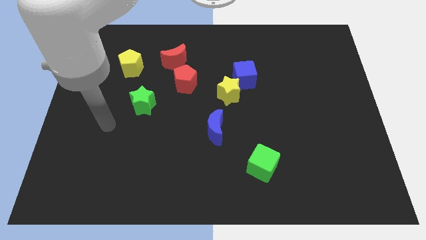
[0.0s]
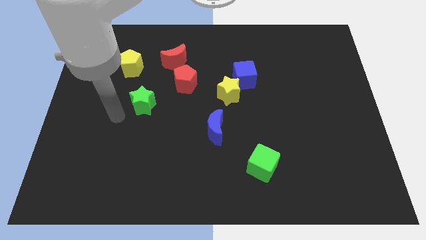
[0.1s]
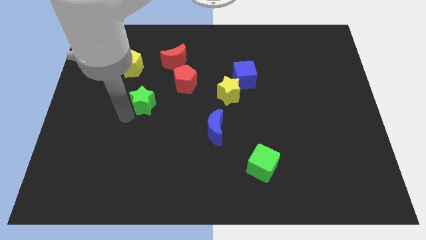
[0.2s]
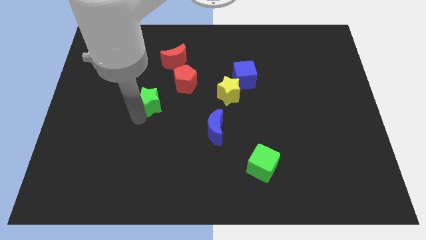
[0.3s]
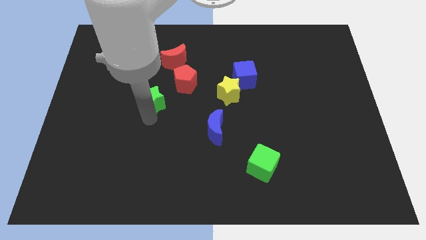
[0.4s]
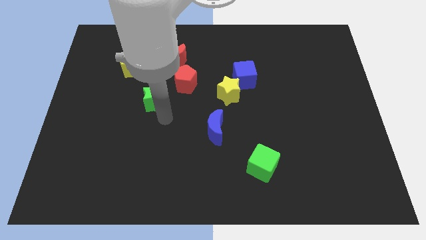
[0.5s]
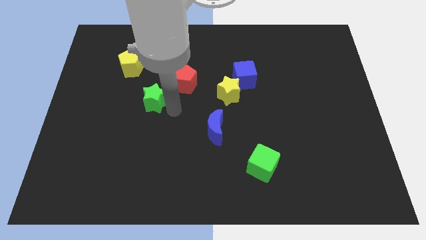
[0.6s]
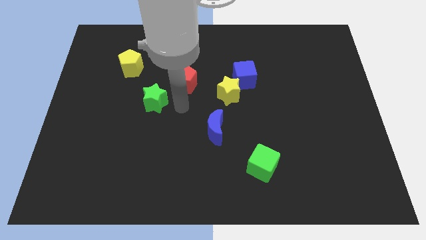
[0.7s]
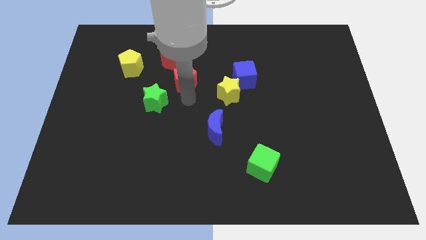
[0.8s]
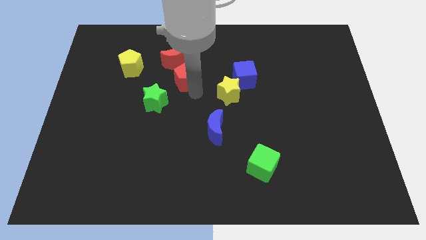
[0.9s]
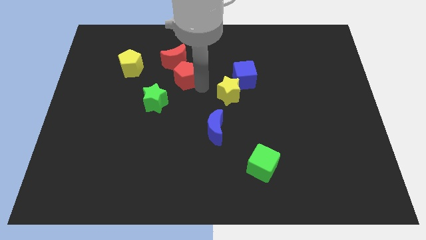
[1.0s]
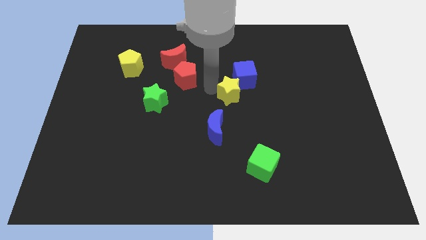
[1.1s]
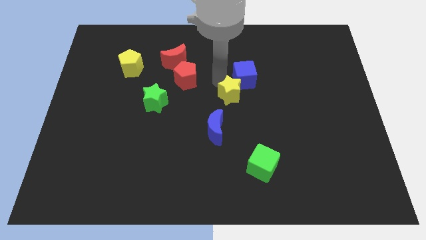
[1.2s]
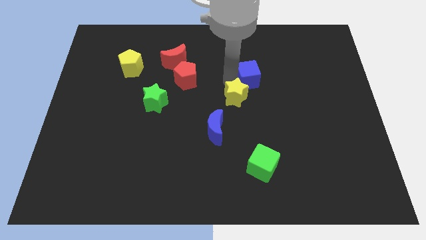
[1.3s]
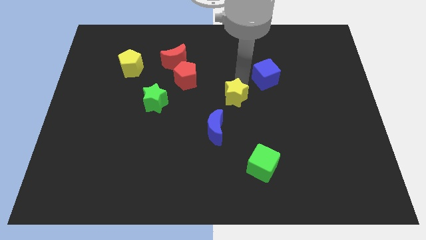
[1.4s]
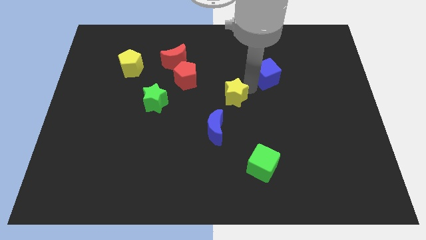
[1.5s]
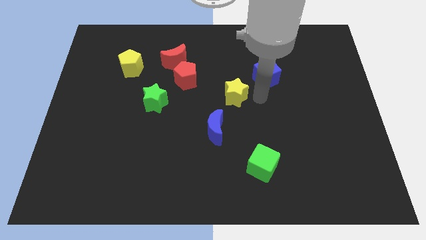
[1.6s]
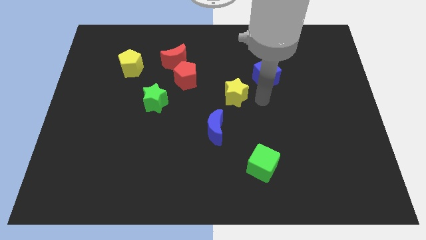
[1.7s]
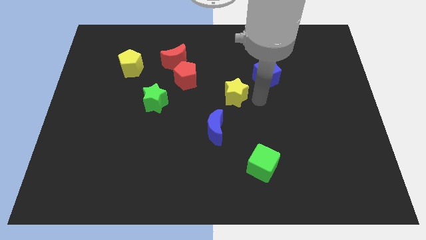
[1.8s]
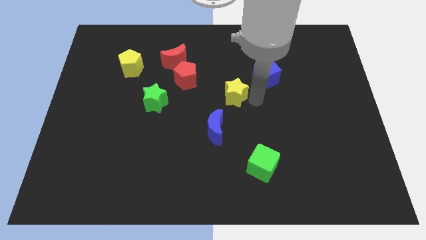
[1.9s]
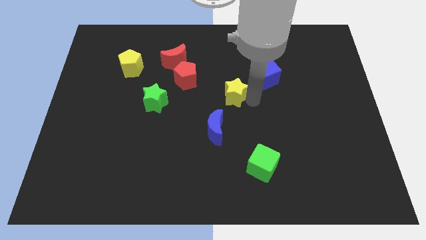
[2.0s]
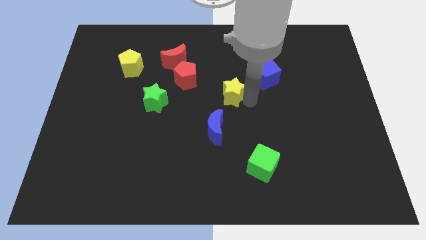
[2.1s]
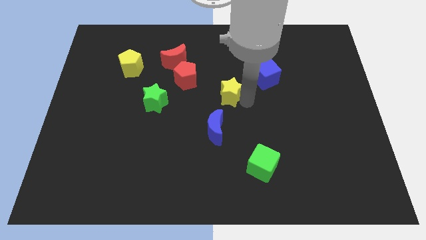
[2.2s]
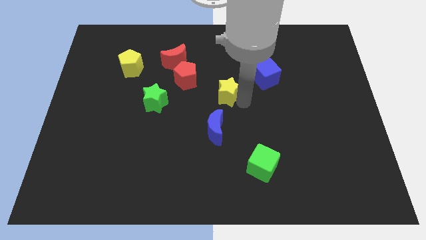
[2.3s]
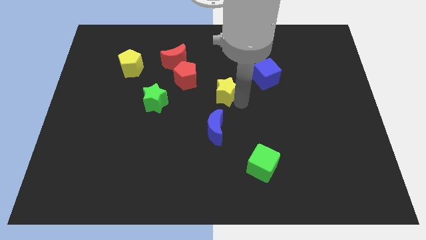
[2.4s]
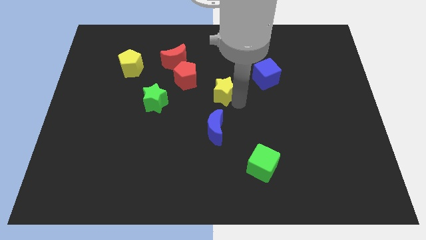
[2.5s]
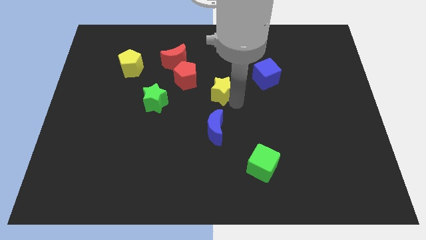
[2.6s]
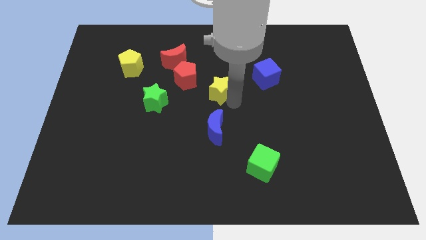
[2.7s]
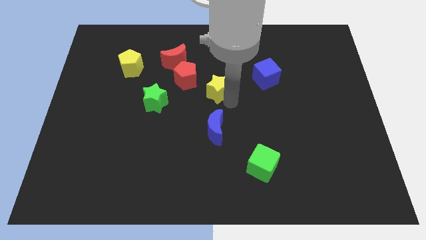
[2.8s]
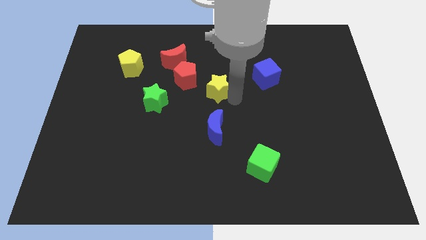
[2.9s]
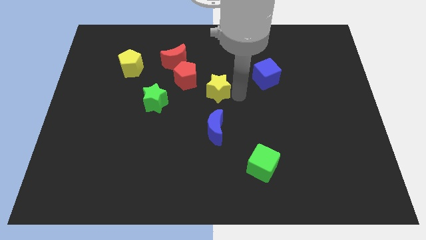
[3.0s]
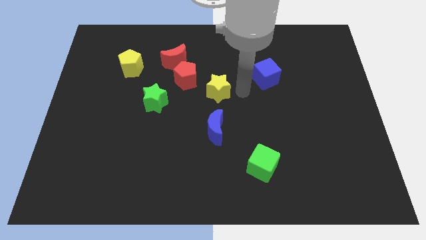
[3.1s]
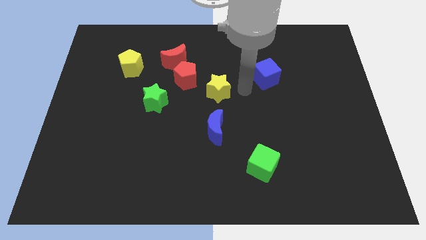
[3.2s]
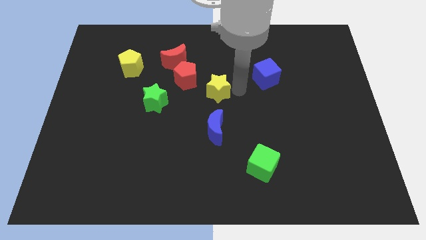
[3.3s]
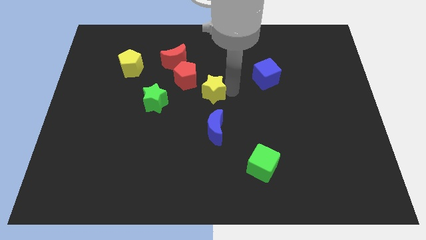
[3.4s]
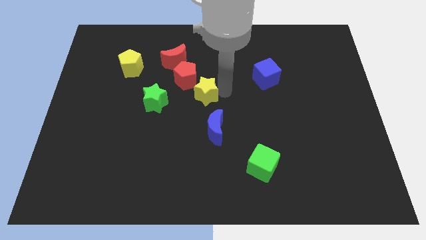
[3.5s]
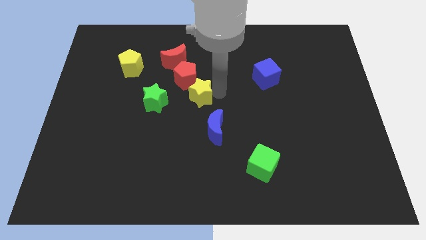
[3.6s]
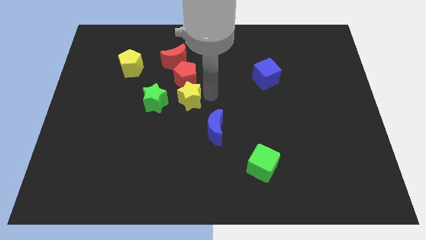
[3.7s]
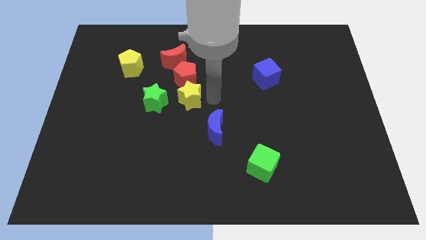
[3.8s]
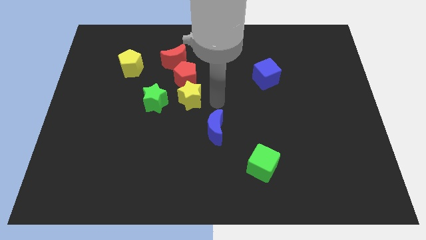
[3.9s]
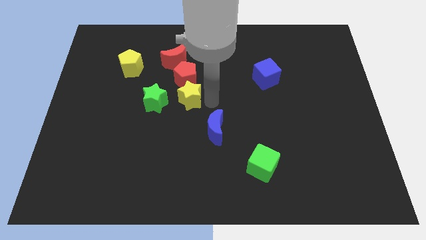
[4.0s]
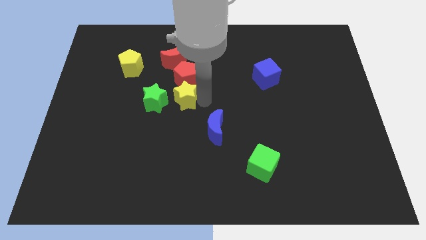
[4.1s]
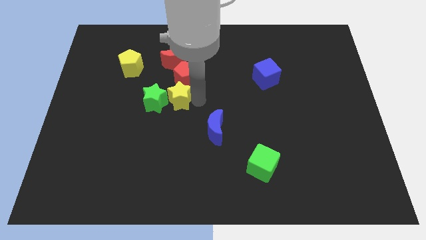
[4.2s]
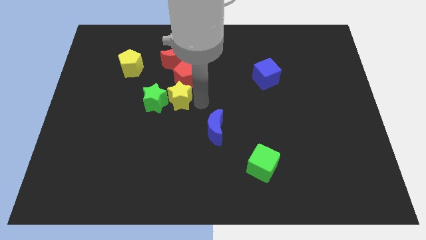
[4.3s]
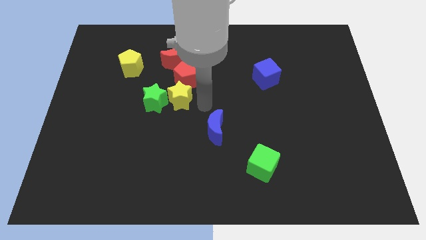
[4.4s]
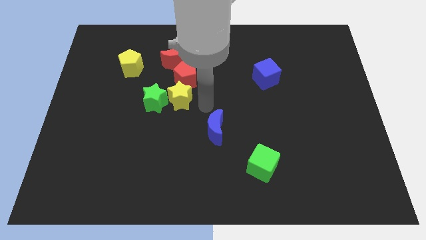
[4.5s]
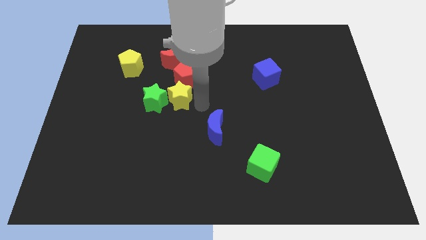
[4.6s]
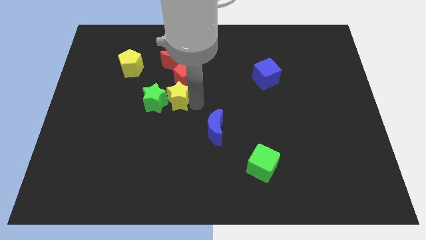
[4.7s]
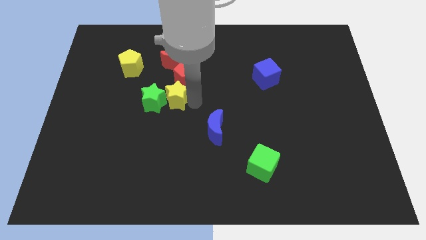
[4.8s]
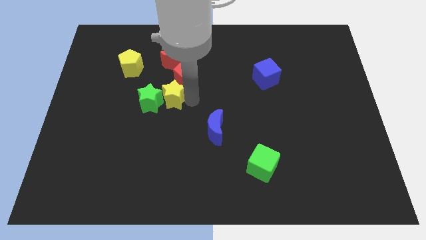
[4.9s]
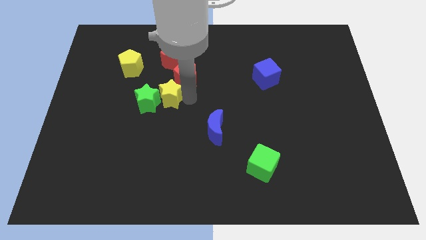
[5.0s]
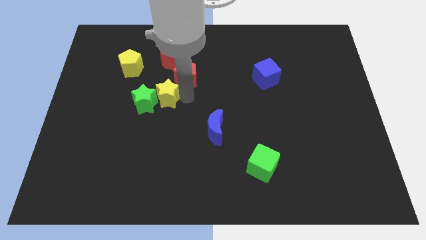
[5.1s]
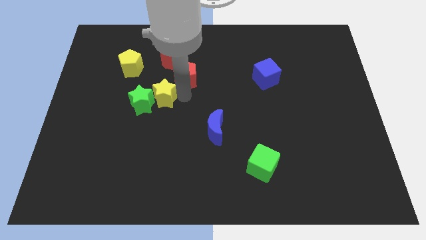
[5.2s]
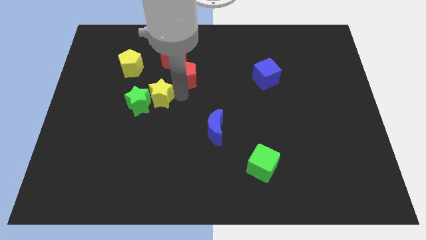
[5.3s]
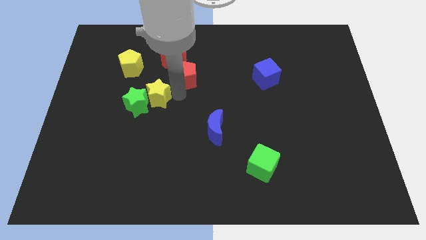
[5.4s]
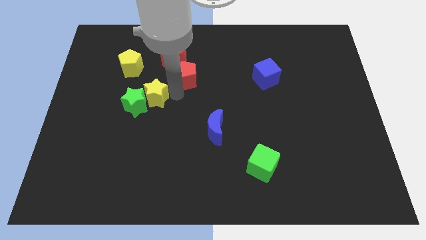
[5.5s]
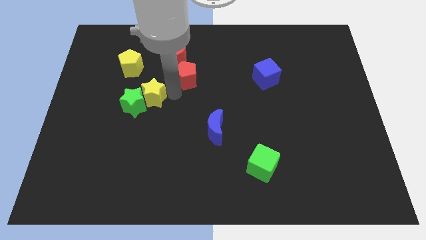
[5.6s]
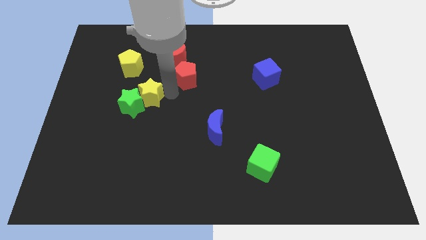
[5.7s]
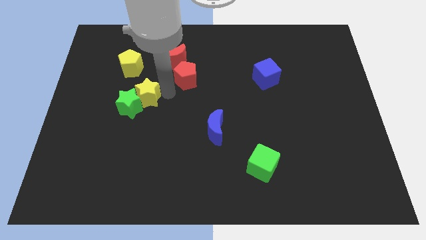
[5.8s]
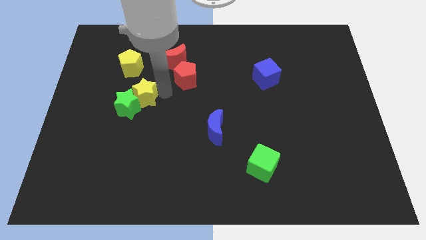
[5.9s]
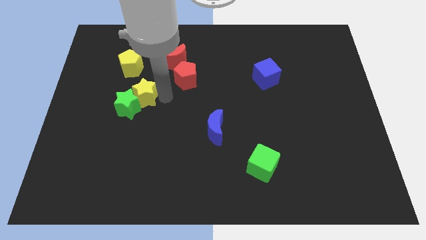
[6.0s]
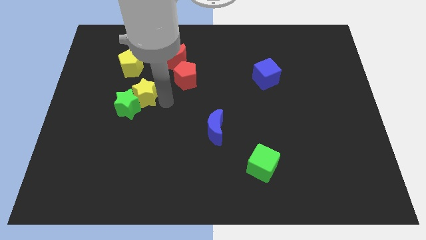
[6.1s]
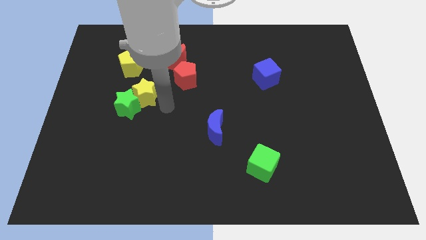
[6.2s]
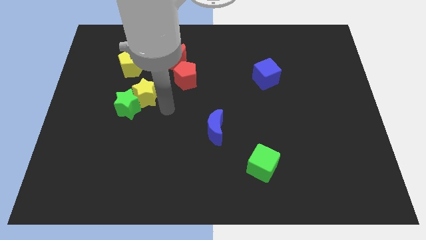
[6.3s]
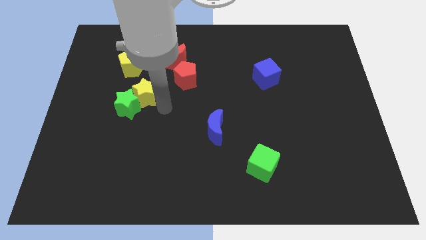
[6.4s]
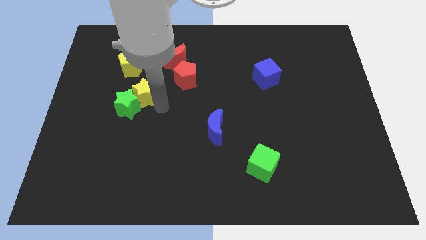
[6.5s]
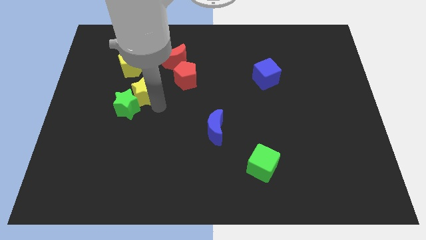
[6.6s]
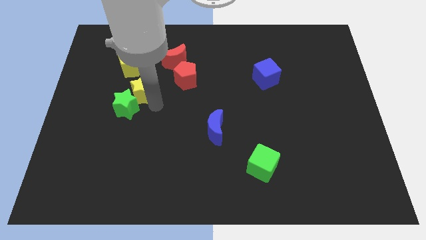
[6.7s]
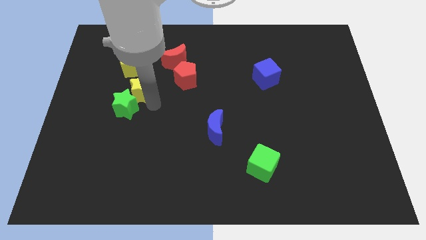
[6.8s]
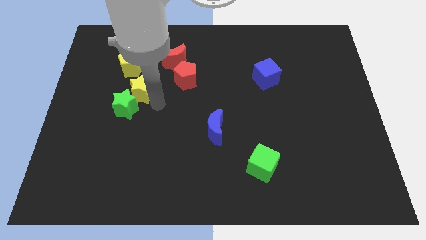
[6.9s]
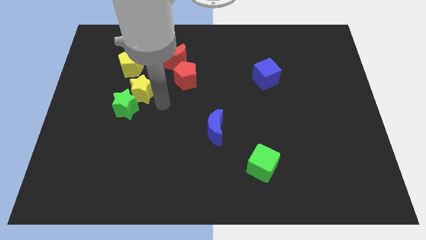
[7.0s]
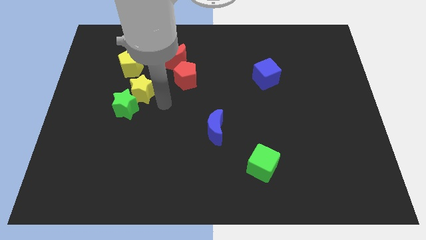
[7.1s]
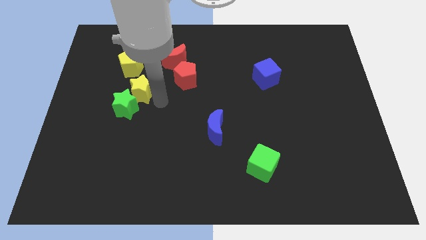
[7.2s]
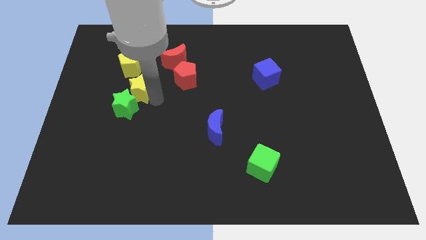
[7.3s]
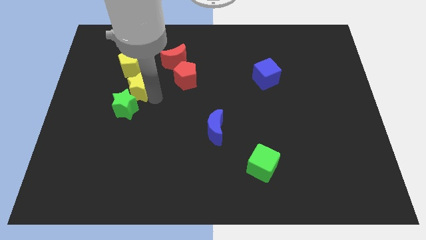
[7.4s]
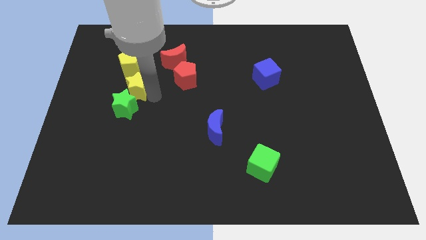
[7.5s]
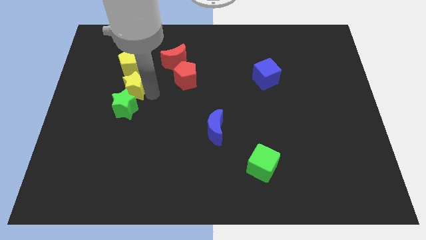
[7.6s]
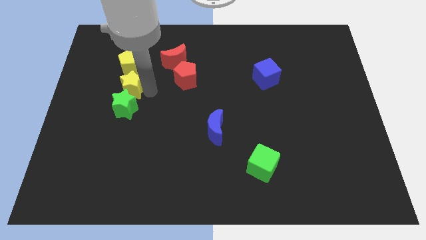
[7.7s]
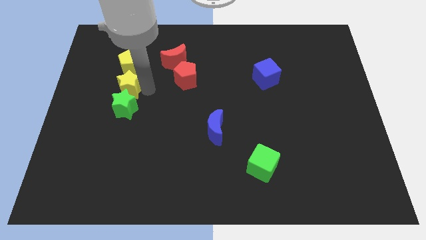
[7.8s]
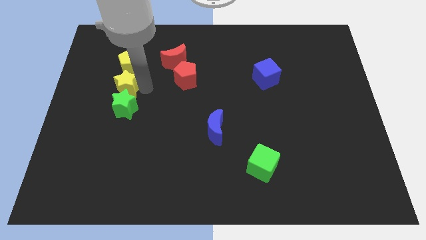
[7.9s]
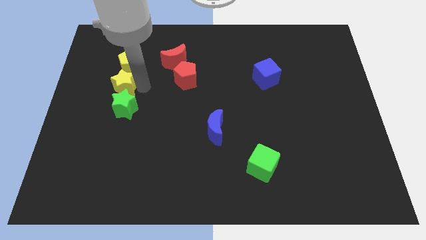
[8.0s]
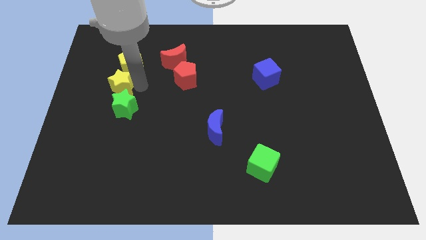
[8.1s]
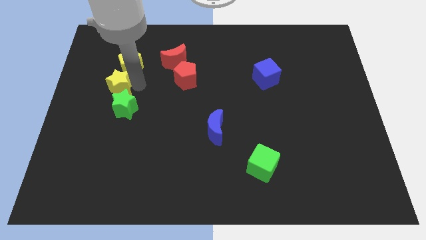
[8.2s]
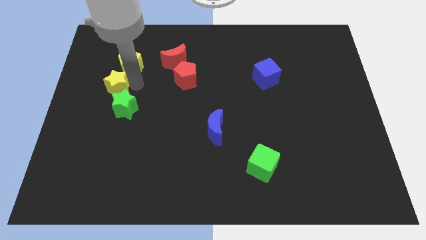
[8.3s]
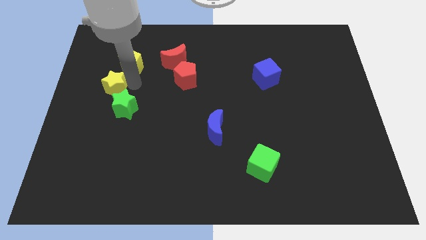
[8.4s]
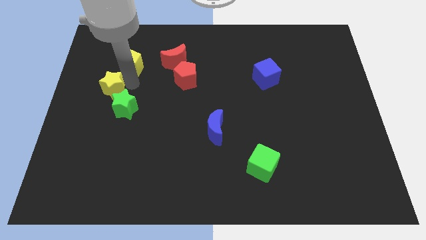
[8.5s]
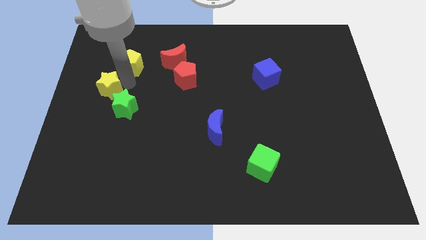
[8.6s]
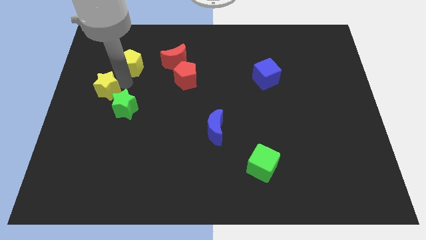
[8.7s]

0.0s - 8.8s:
slide the yellow star to the left side
